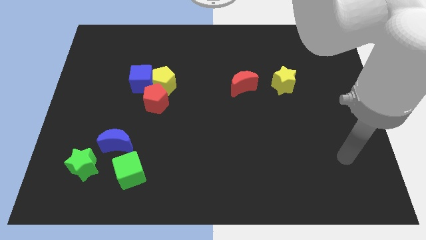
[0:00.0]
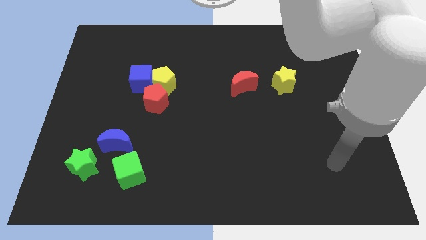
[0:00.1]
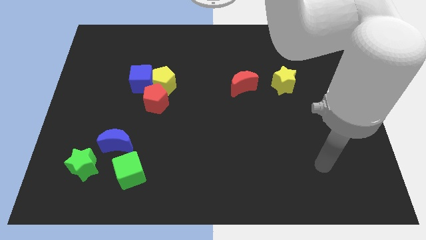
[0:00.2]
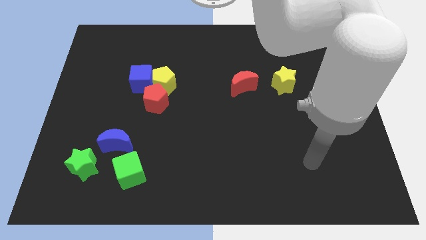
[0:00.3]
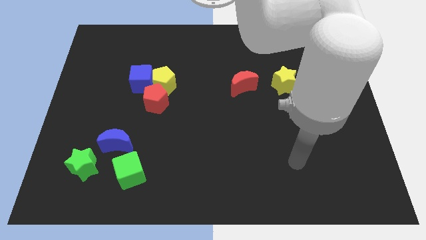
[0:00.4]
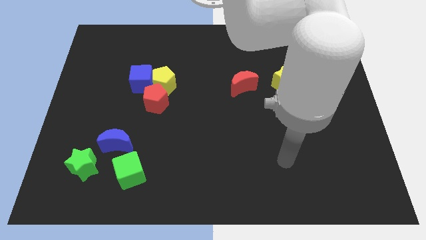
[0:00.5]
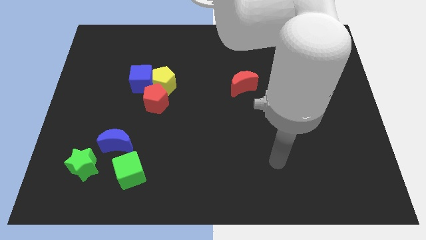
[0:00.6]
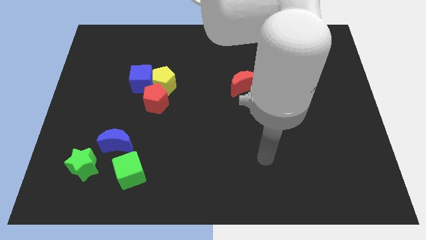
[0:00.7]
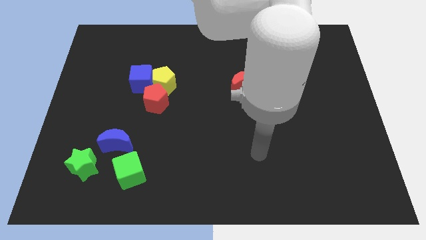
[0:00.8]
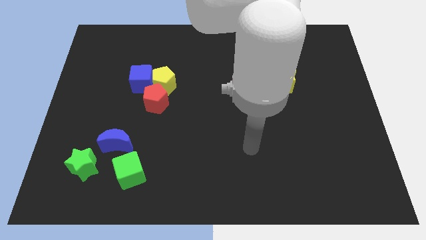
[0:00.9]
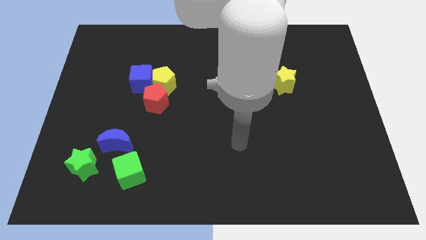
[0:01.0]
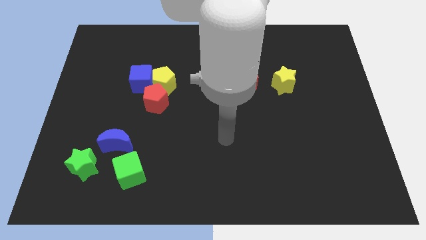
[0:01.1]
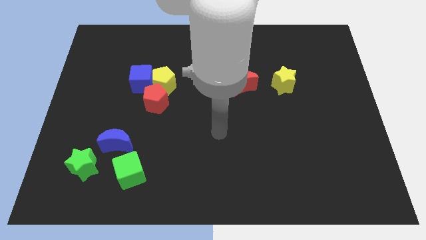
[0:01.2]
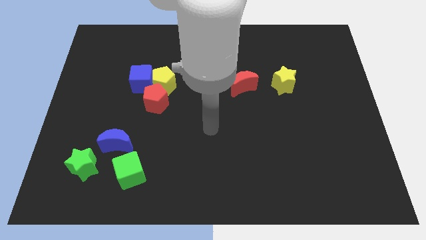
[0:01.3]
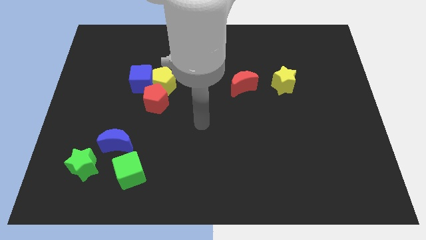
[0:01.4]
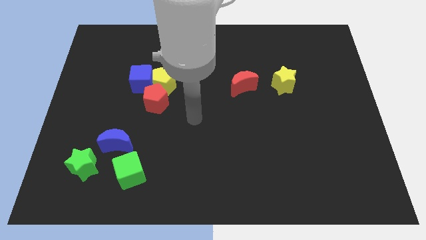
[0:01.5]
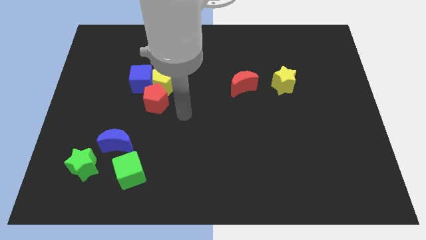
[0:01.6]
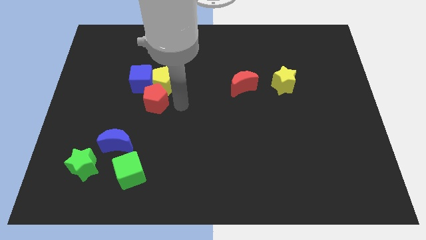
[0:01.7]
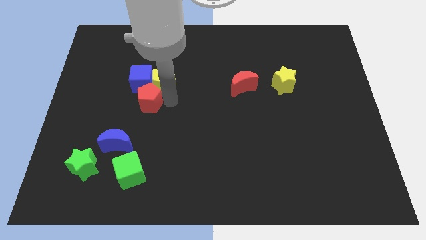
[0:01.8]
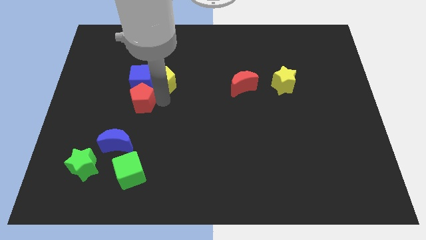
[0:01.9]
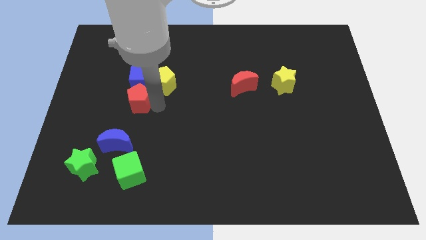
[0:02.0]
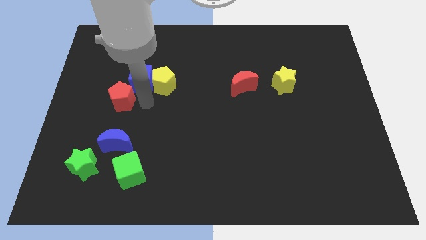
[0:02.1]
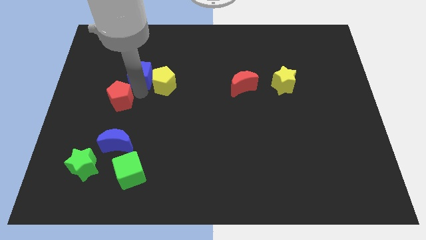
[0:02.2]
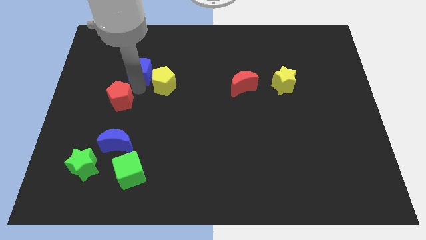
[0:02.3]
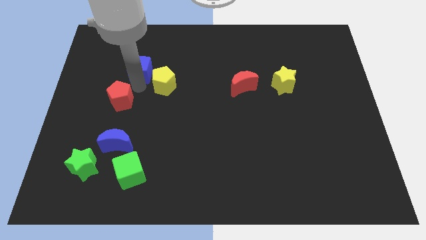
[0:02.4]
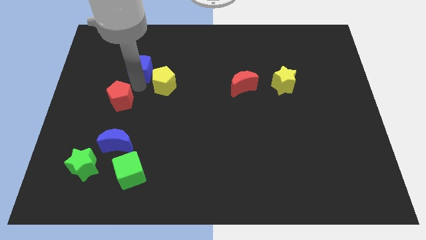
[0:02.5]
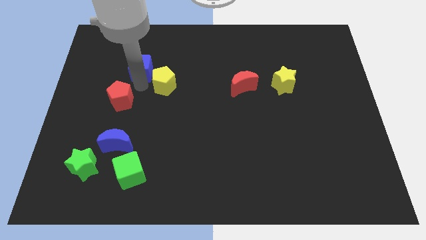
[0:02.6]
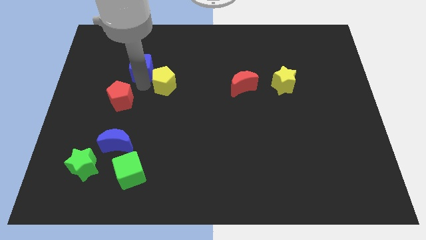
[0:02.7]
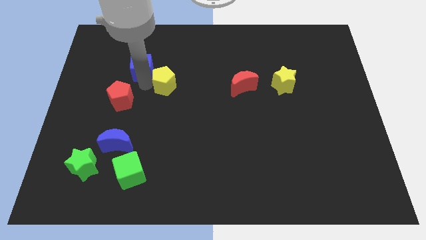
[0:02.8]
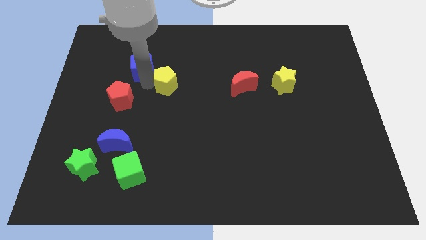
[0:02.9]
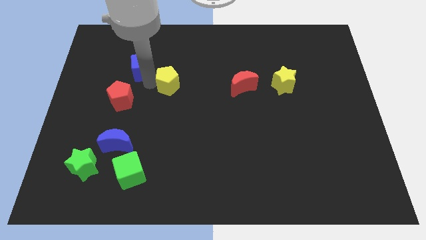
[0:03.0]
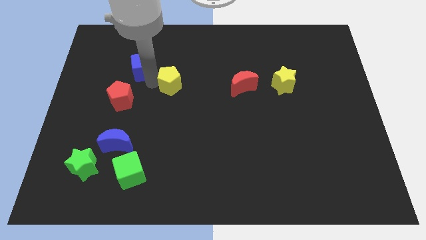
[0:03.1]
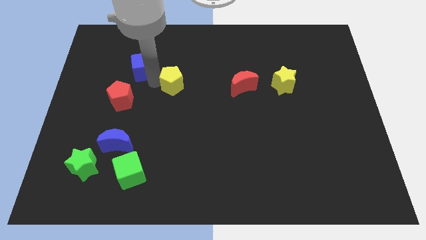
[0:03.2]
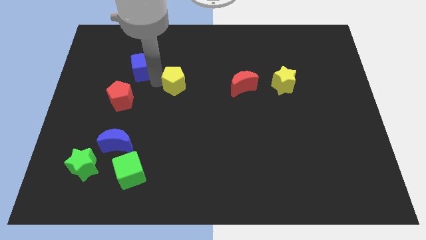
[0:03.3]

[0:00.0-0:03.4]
separate the yellow pentagon from the blue cube and red pentagon

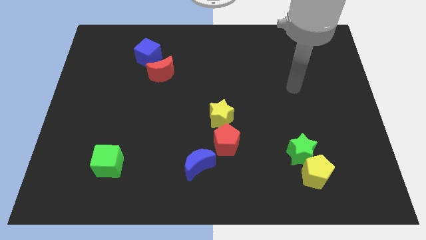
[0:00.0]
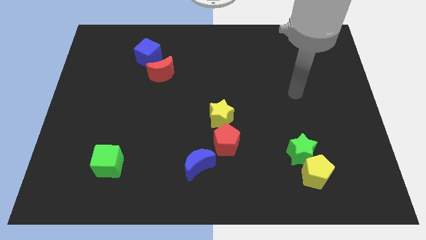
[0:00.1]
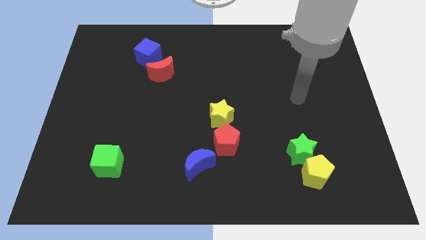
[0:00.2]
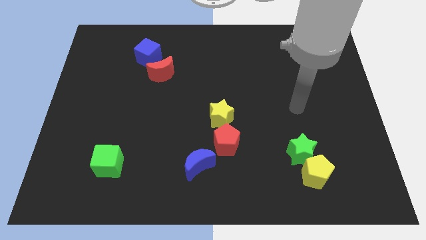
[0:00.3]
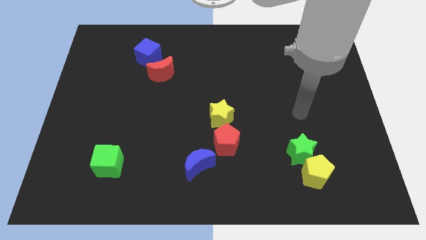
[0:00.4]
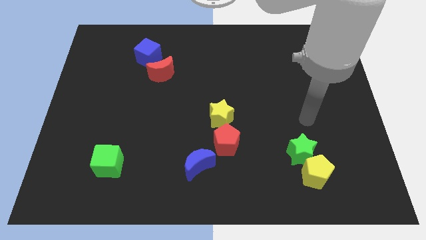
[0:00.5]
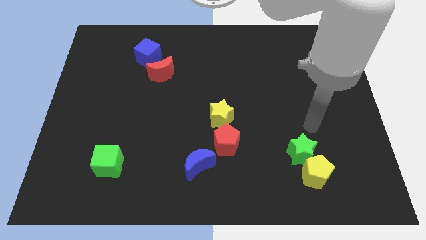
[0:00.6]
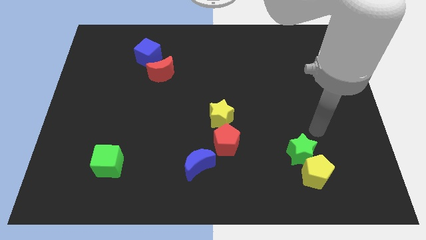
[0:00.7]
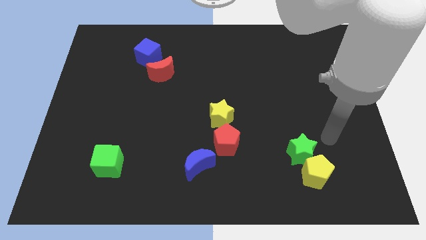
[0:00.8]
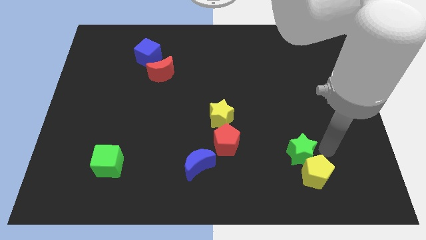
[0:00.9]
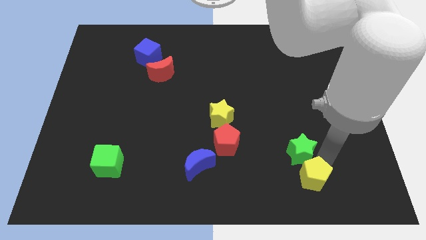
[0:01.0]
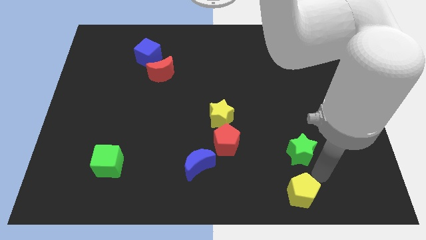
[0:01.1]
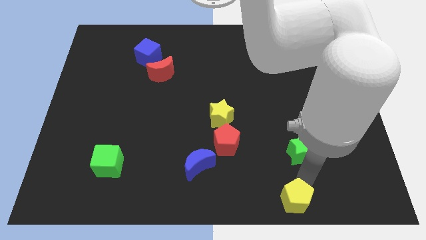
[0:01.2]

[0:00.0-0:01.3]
pull the green star apart from the yellow pentagon

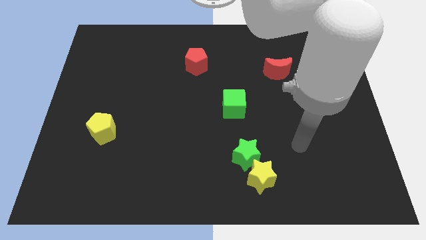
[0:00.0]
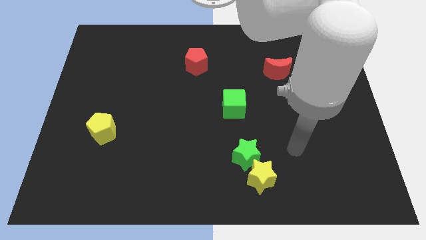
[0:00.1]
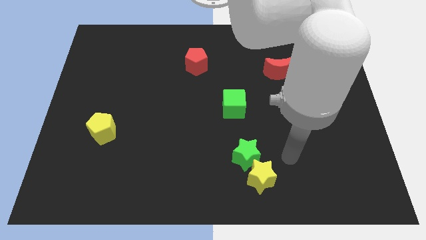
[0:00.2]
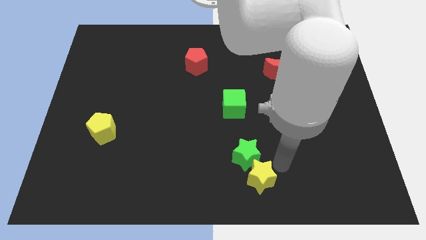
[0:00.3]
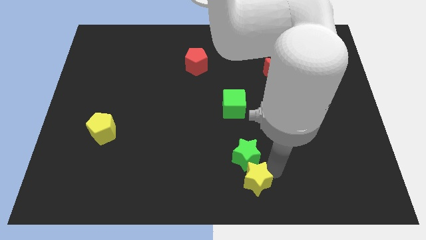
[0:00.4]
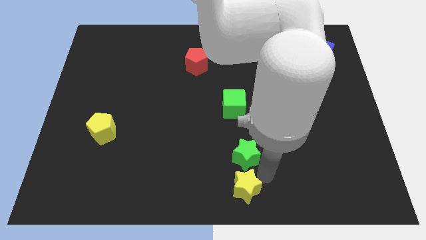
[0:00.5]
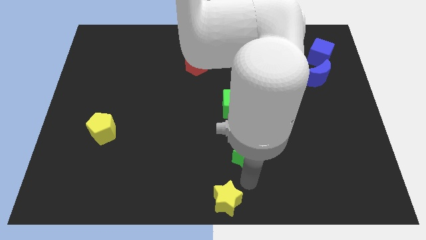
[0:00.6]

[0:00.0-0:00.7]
separate the green star from the yellow star

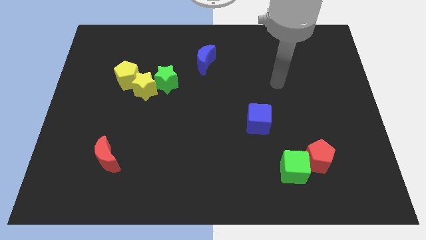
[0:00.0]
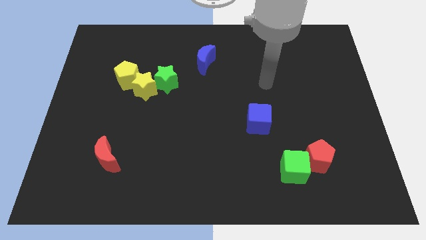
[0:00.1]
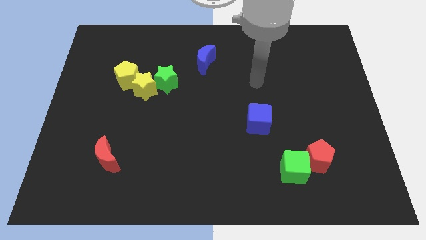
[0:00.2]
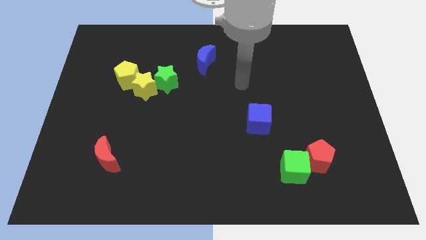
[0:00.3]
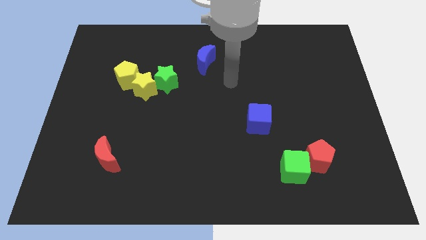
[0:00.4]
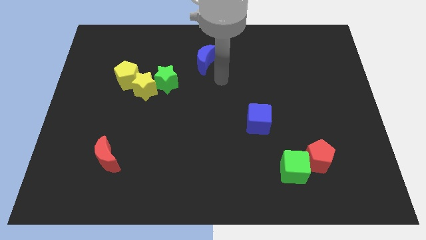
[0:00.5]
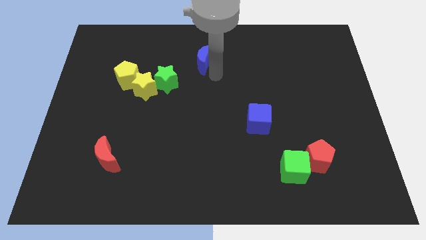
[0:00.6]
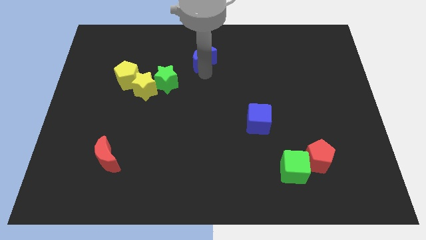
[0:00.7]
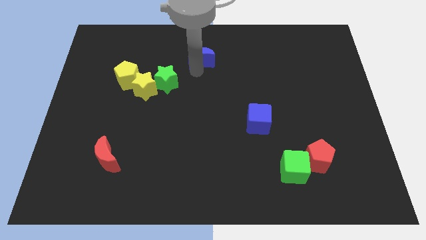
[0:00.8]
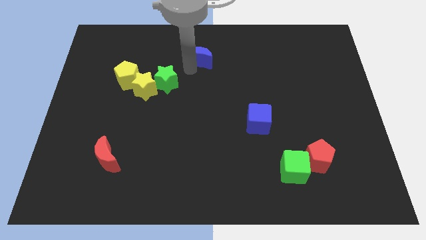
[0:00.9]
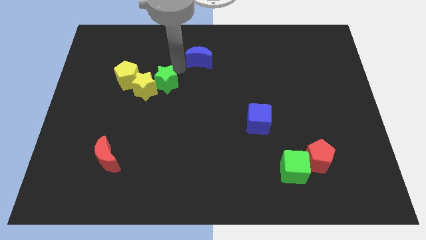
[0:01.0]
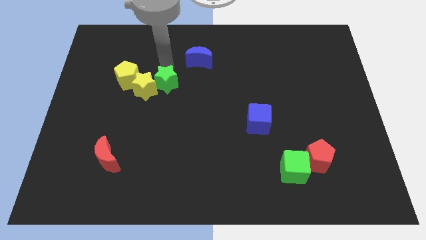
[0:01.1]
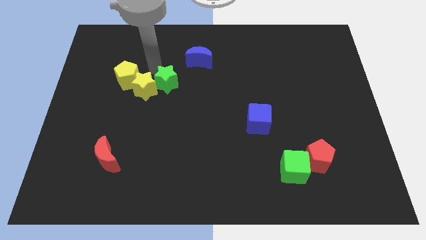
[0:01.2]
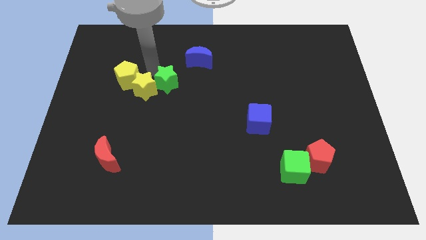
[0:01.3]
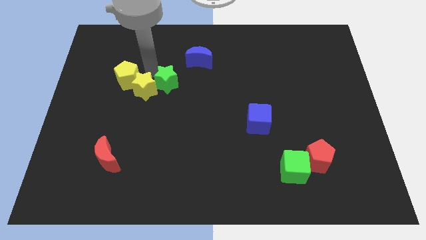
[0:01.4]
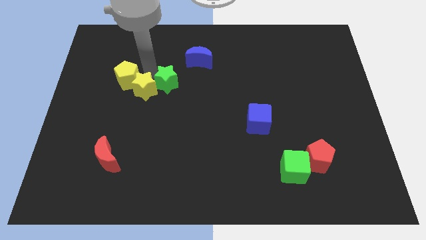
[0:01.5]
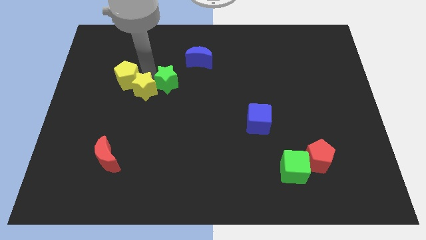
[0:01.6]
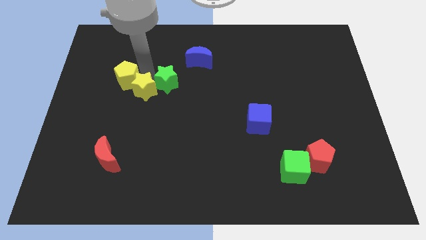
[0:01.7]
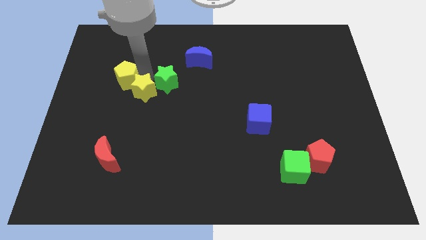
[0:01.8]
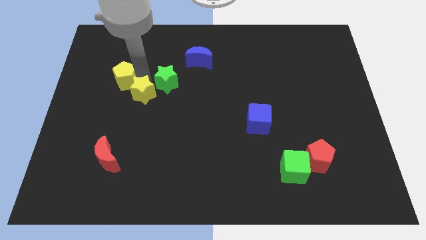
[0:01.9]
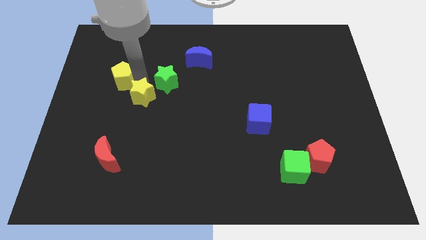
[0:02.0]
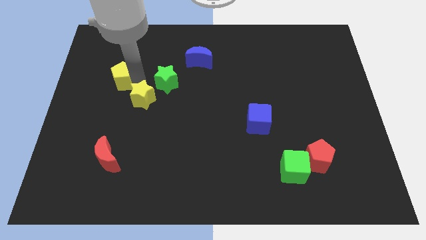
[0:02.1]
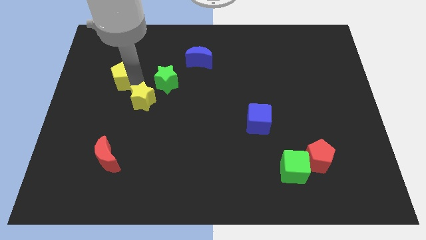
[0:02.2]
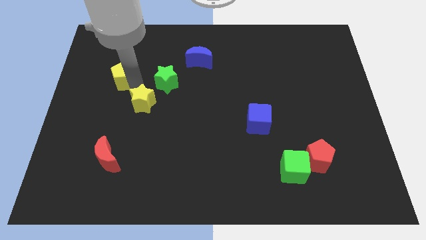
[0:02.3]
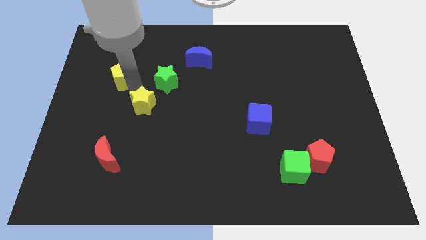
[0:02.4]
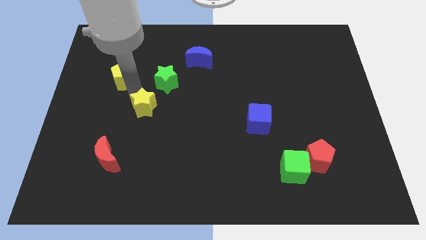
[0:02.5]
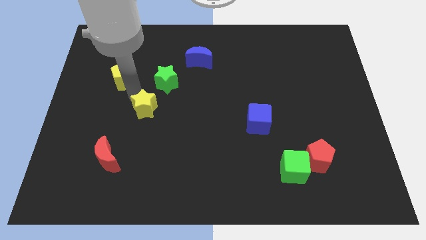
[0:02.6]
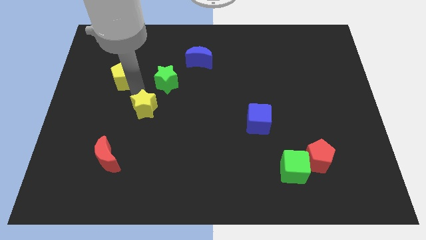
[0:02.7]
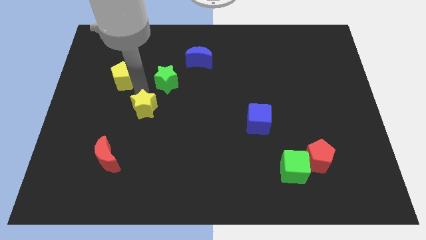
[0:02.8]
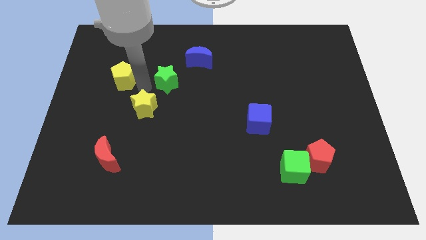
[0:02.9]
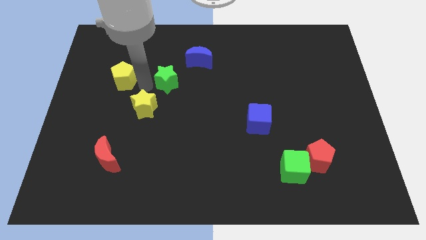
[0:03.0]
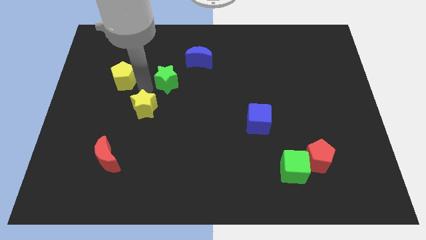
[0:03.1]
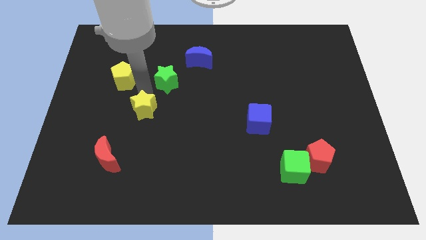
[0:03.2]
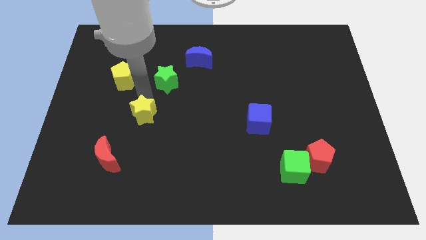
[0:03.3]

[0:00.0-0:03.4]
separate the yellow star from the green star and yellow pentagon

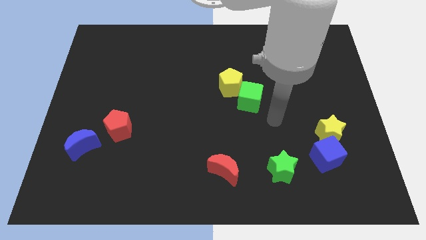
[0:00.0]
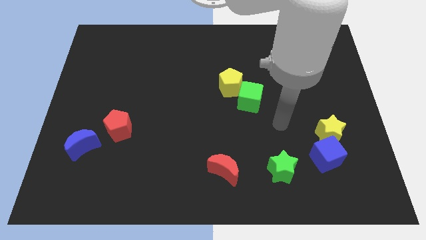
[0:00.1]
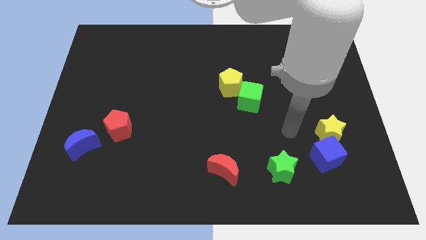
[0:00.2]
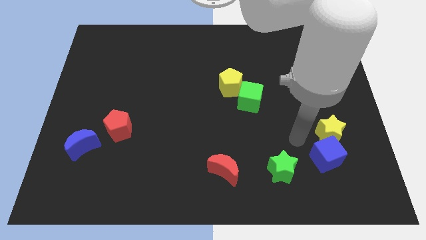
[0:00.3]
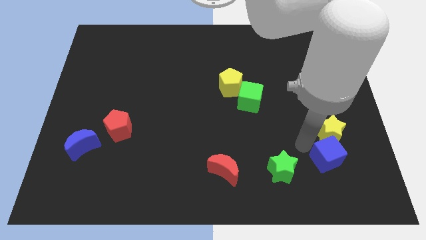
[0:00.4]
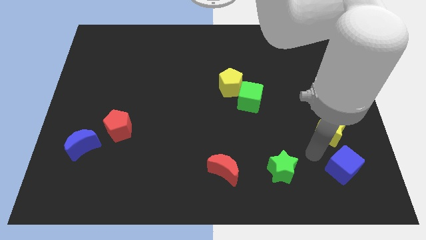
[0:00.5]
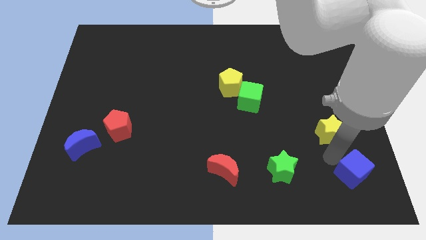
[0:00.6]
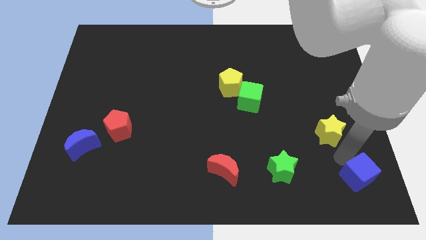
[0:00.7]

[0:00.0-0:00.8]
pull the yellow star apart from the blue cube
